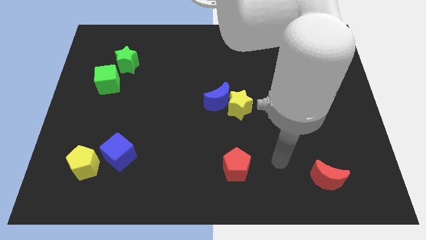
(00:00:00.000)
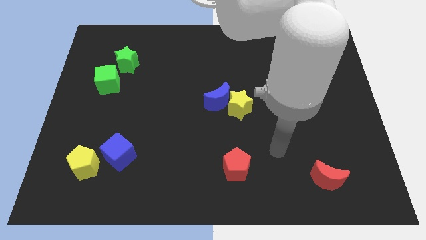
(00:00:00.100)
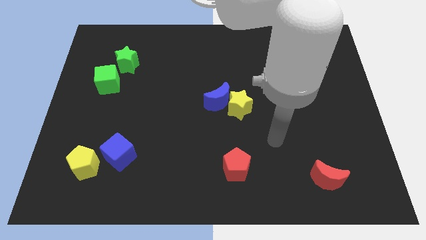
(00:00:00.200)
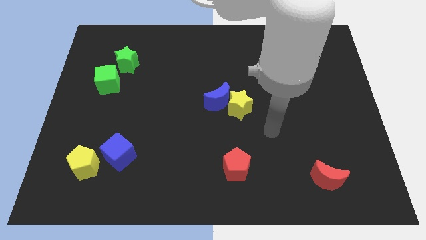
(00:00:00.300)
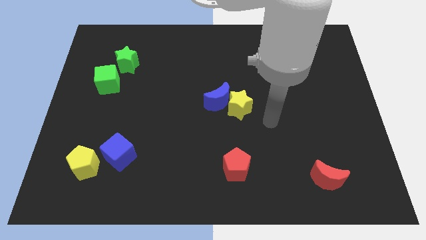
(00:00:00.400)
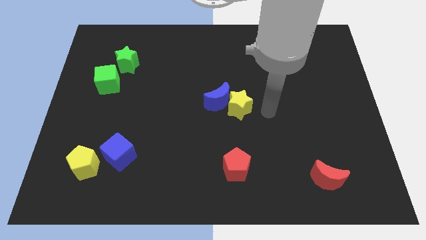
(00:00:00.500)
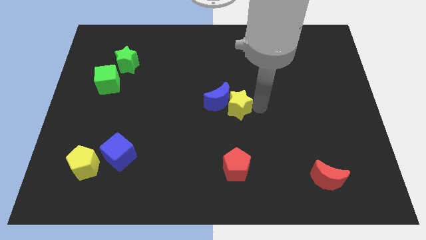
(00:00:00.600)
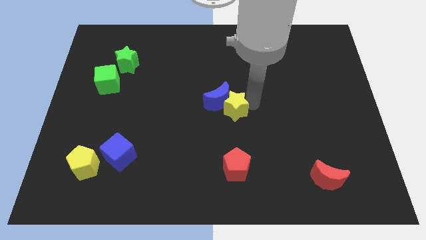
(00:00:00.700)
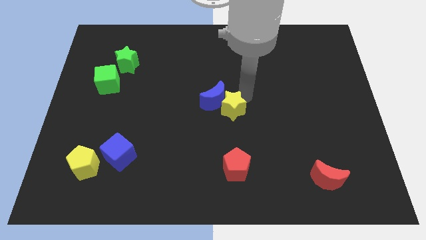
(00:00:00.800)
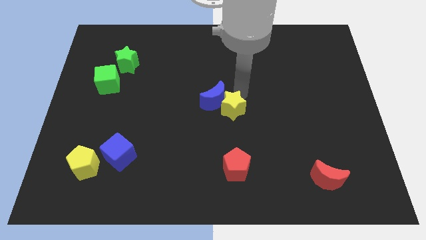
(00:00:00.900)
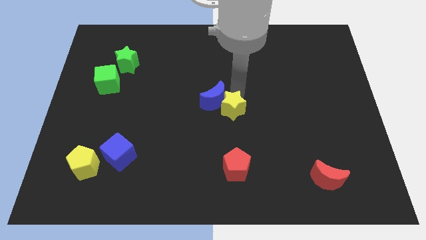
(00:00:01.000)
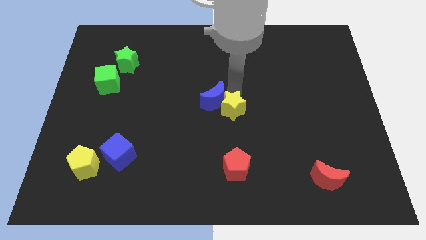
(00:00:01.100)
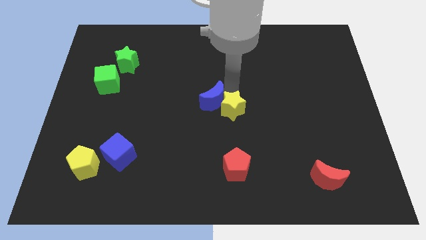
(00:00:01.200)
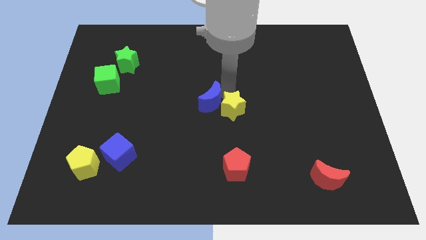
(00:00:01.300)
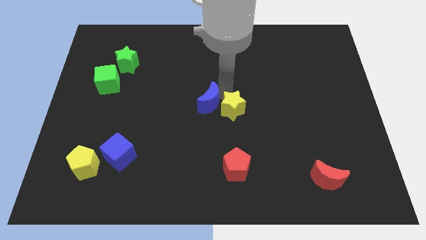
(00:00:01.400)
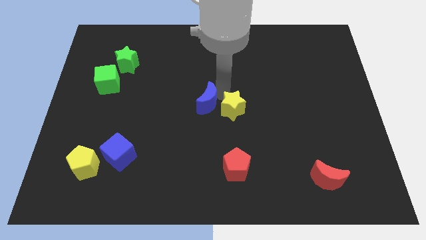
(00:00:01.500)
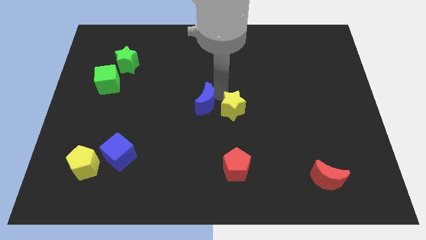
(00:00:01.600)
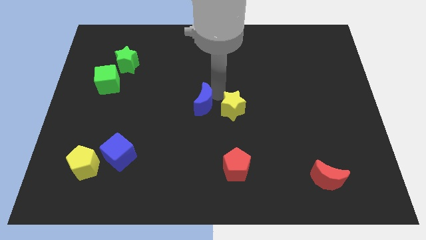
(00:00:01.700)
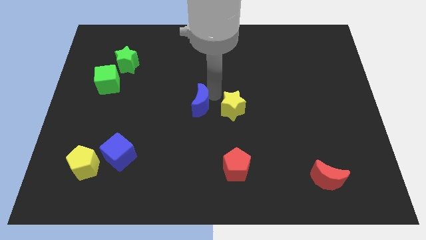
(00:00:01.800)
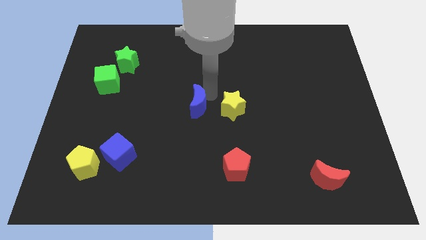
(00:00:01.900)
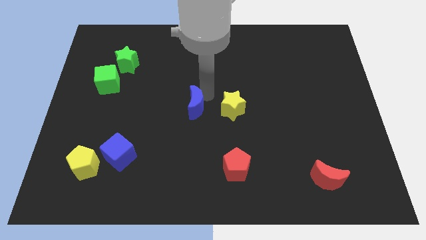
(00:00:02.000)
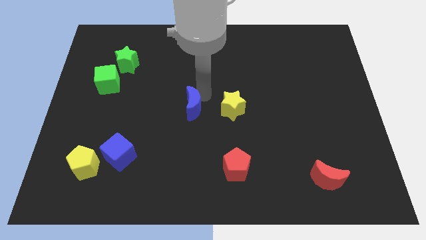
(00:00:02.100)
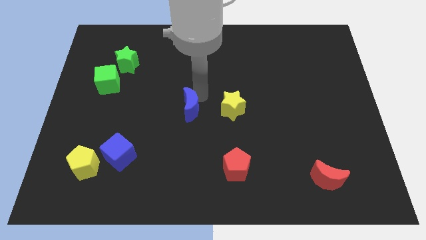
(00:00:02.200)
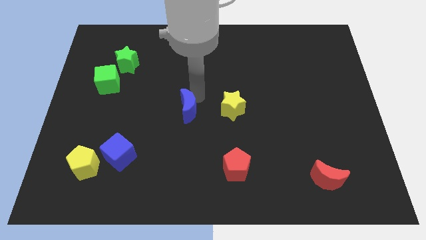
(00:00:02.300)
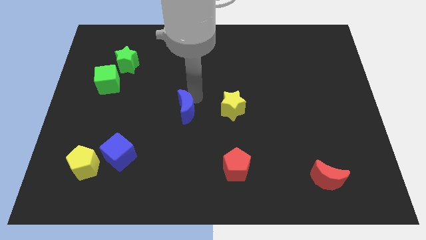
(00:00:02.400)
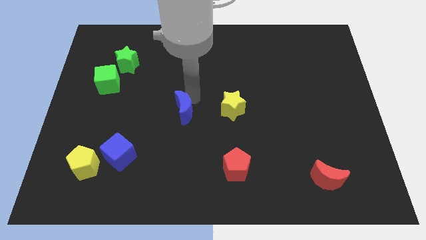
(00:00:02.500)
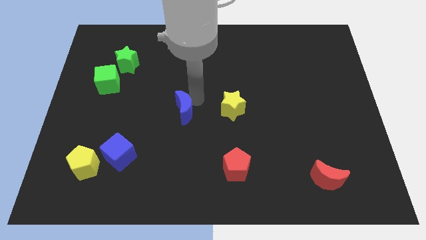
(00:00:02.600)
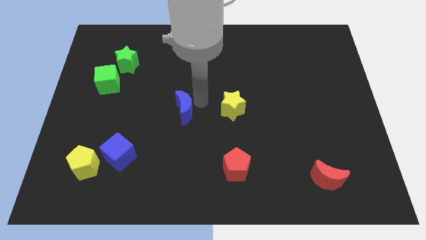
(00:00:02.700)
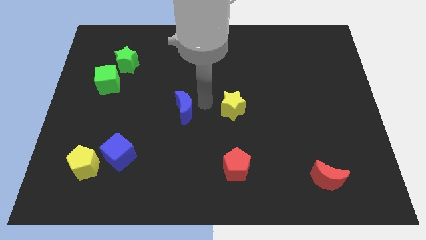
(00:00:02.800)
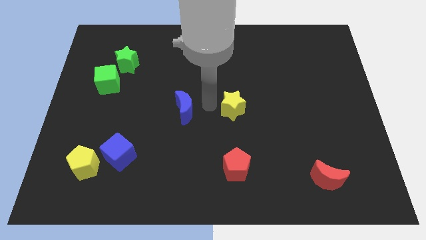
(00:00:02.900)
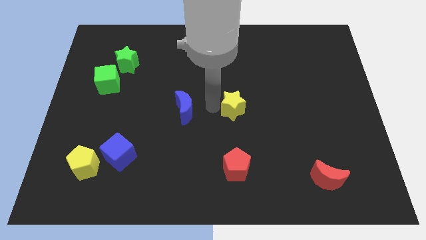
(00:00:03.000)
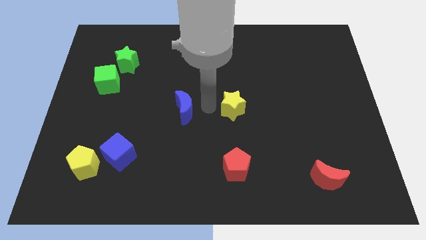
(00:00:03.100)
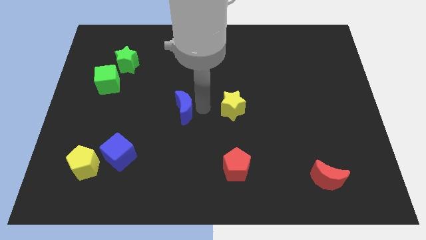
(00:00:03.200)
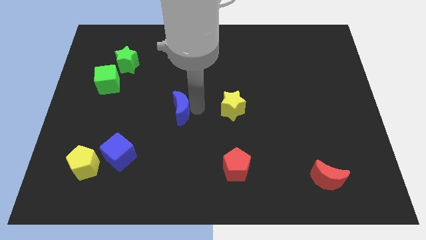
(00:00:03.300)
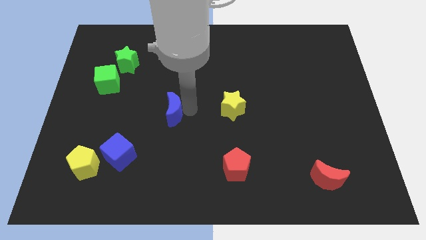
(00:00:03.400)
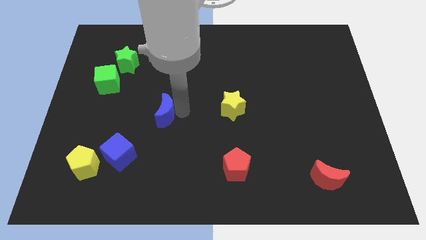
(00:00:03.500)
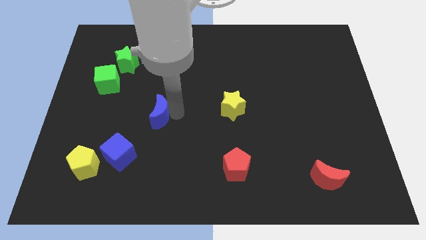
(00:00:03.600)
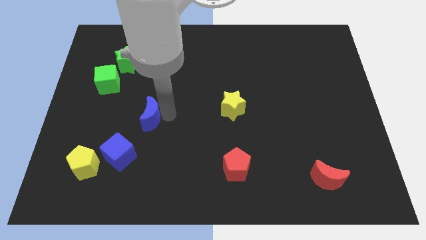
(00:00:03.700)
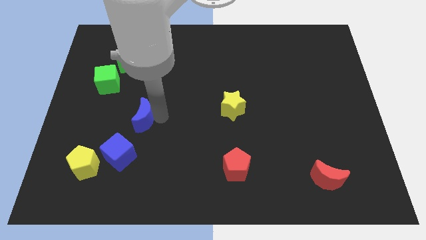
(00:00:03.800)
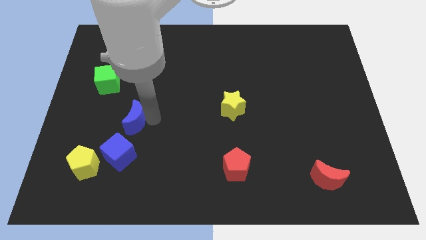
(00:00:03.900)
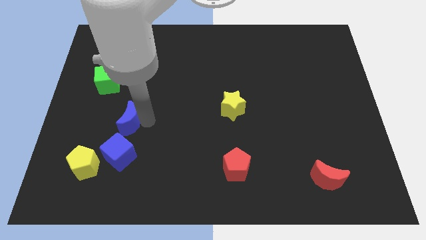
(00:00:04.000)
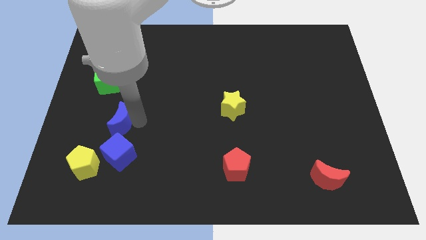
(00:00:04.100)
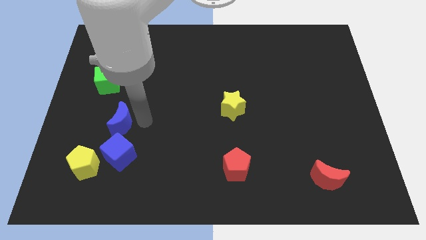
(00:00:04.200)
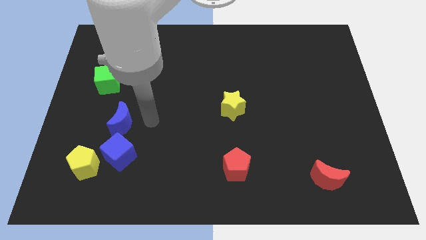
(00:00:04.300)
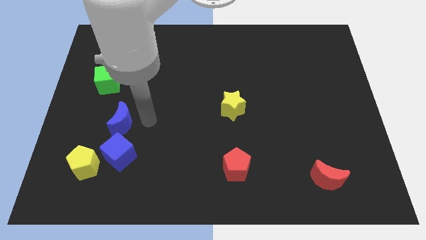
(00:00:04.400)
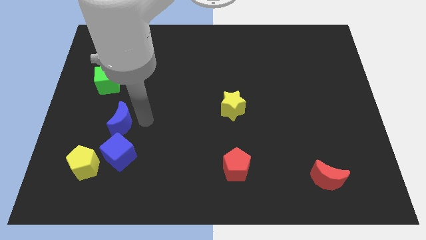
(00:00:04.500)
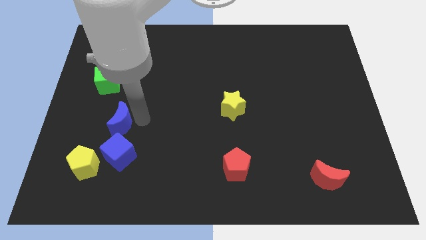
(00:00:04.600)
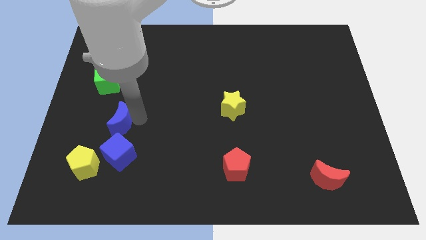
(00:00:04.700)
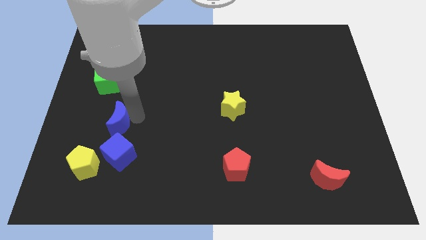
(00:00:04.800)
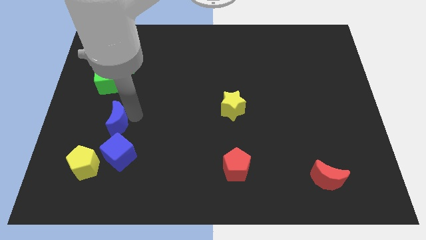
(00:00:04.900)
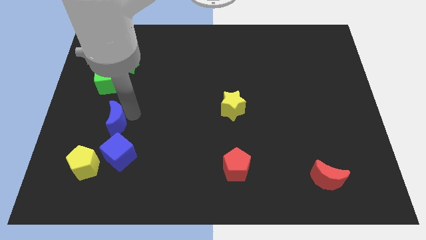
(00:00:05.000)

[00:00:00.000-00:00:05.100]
put the blue moon above the yellow pentagon

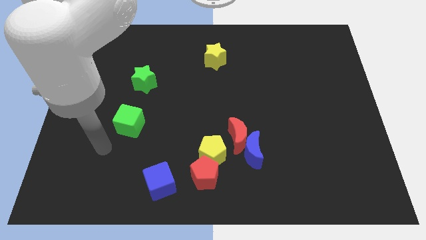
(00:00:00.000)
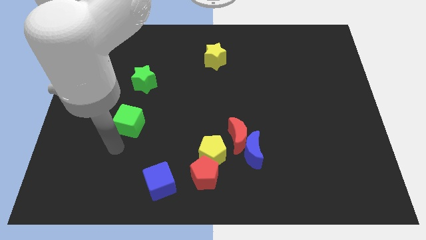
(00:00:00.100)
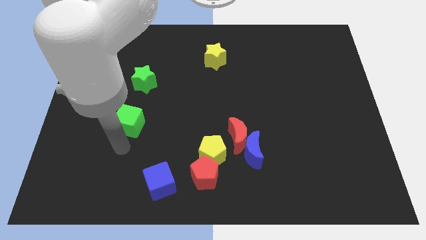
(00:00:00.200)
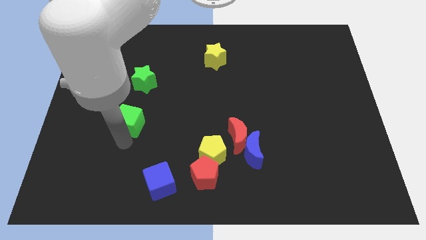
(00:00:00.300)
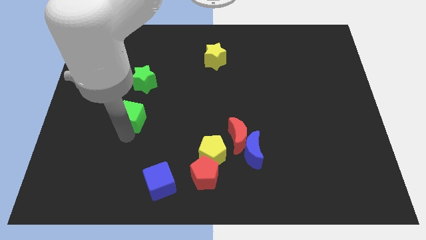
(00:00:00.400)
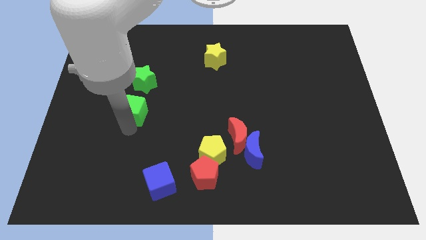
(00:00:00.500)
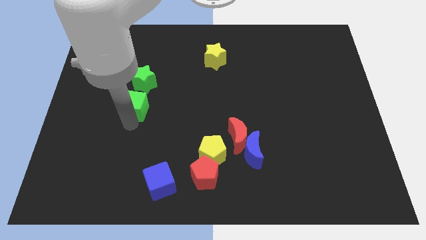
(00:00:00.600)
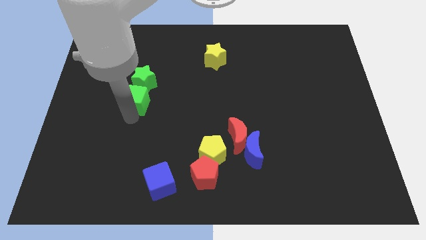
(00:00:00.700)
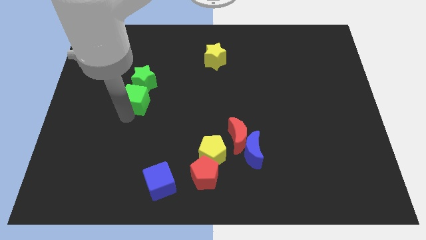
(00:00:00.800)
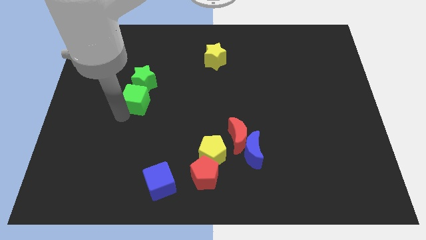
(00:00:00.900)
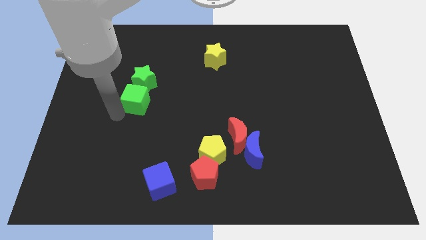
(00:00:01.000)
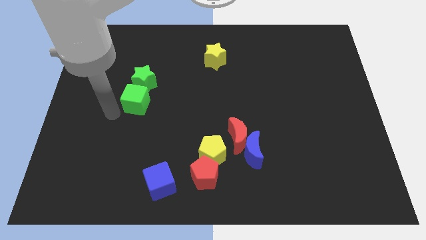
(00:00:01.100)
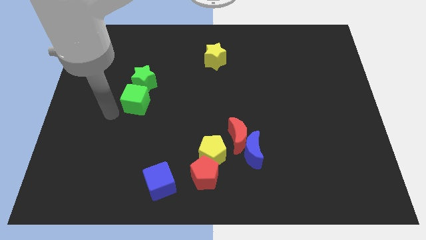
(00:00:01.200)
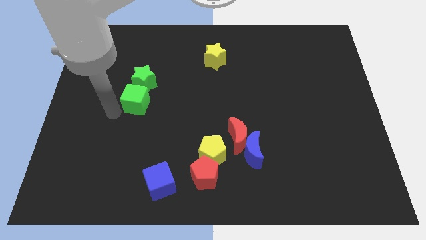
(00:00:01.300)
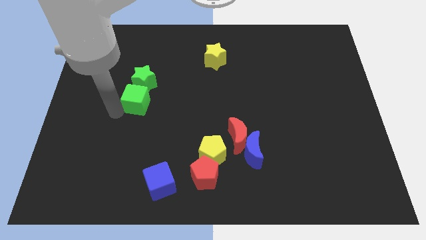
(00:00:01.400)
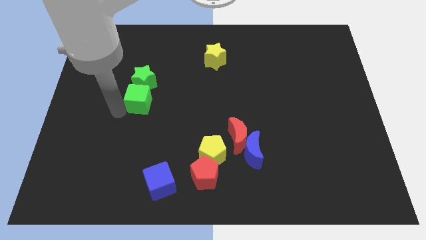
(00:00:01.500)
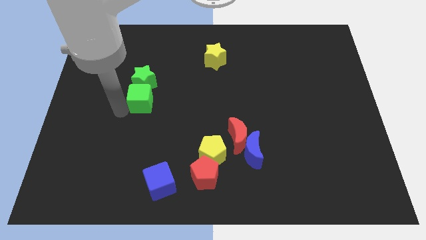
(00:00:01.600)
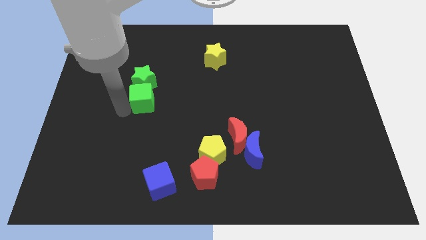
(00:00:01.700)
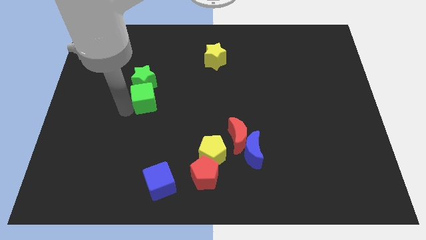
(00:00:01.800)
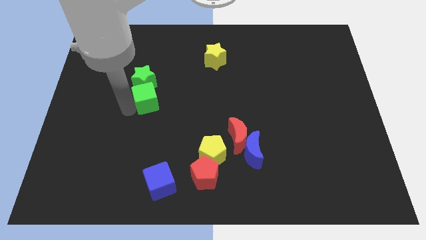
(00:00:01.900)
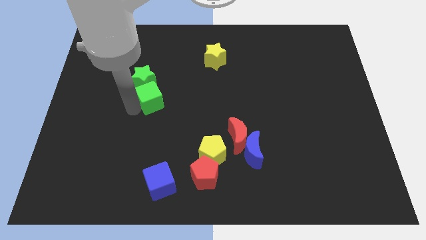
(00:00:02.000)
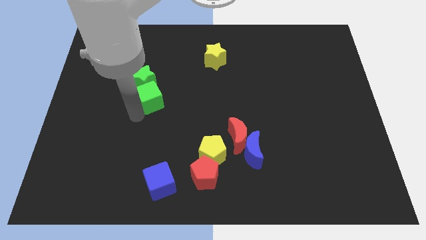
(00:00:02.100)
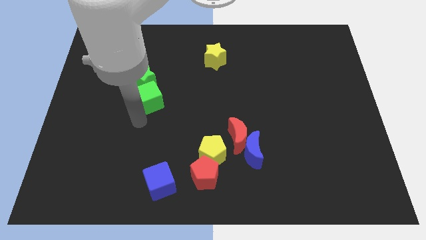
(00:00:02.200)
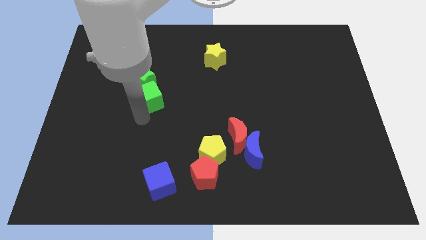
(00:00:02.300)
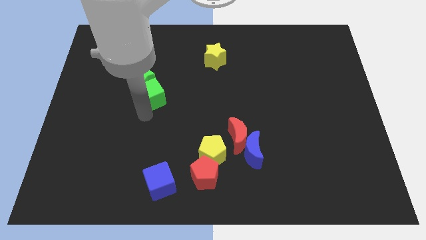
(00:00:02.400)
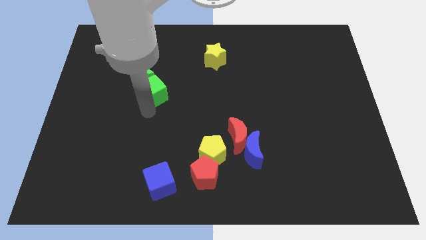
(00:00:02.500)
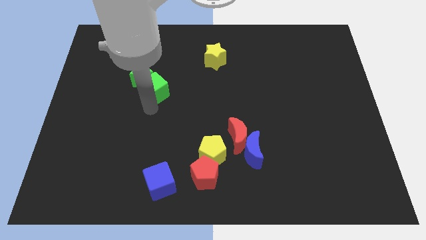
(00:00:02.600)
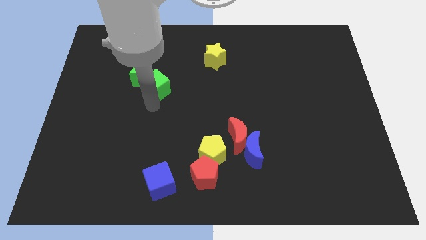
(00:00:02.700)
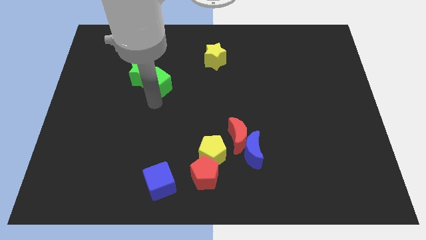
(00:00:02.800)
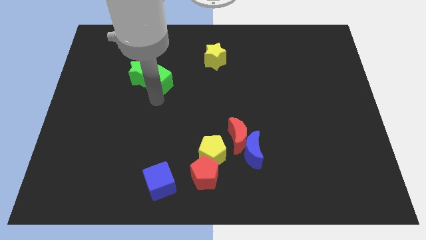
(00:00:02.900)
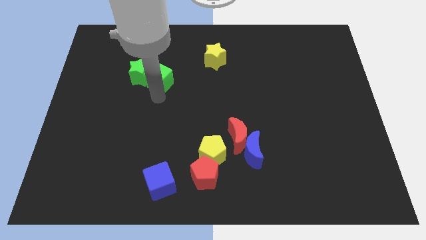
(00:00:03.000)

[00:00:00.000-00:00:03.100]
put the green cube to the top right of the green star
